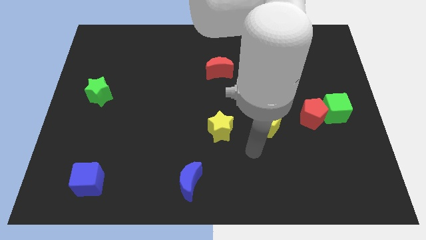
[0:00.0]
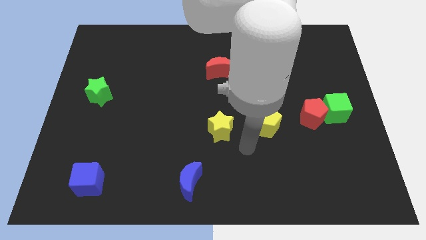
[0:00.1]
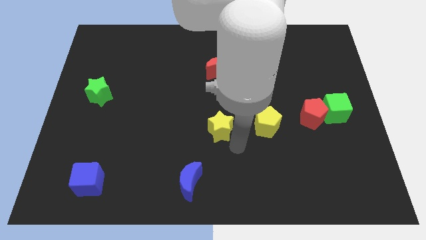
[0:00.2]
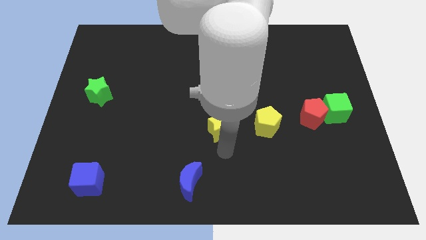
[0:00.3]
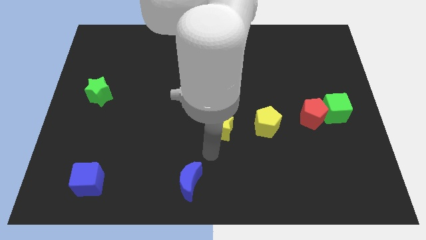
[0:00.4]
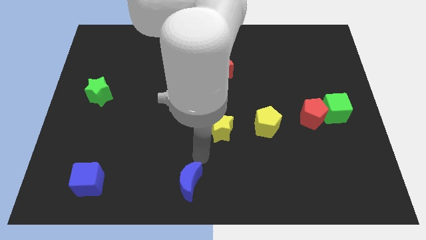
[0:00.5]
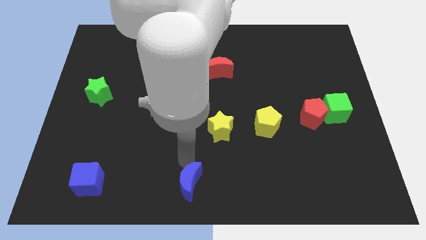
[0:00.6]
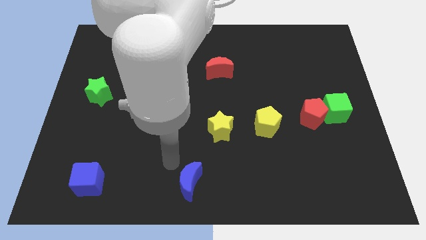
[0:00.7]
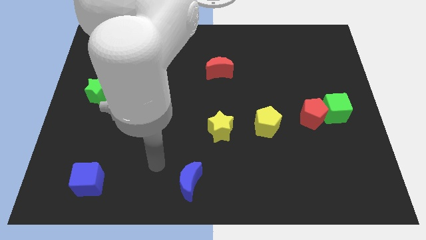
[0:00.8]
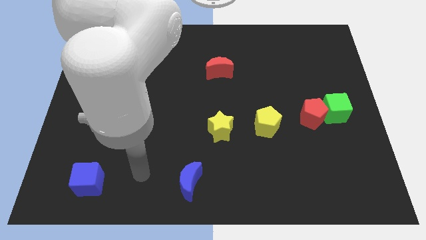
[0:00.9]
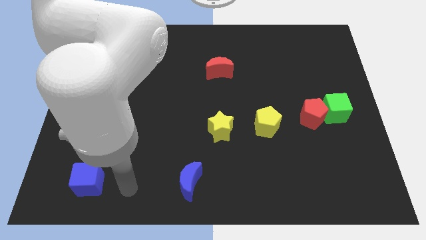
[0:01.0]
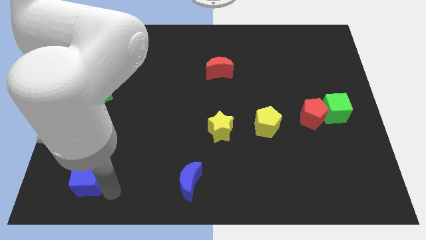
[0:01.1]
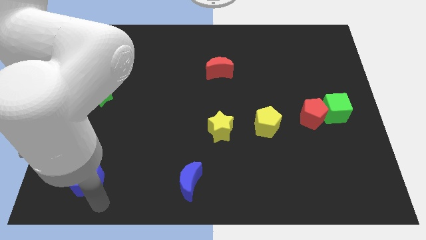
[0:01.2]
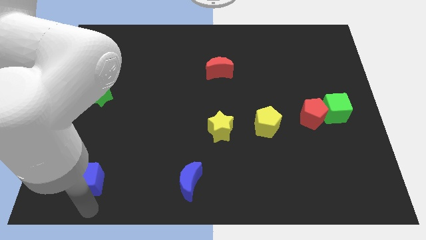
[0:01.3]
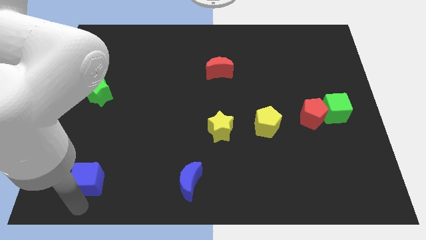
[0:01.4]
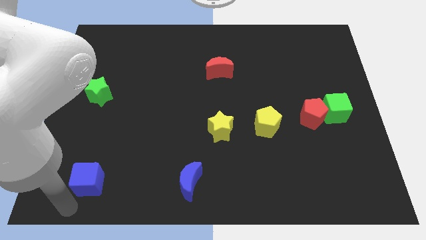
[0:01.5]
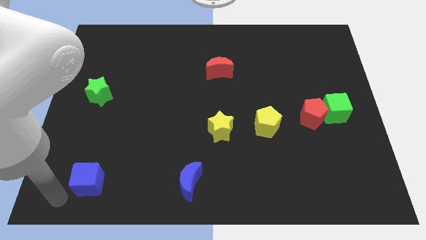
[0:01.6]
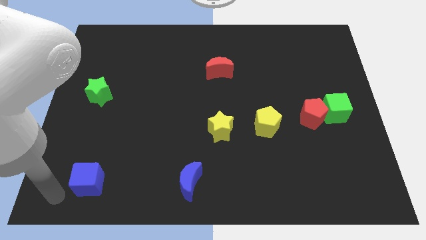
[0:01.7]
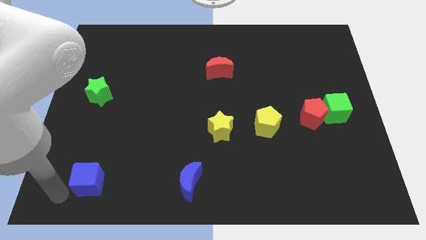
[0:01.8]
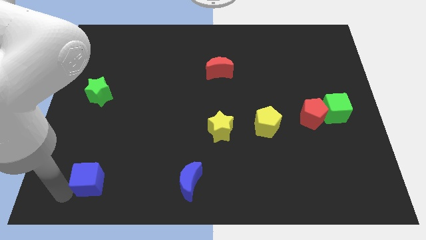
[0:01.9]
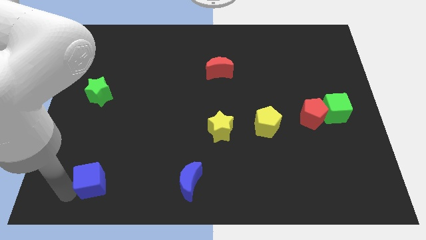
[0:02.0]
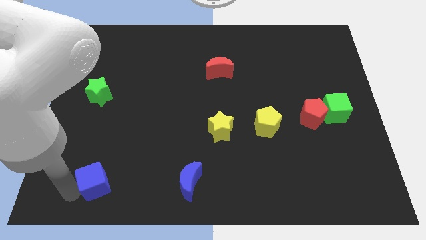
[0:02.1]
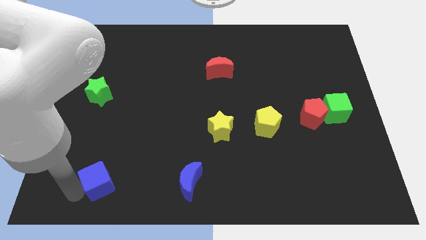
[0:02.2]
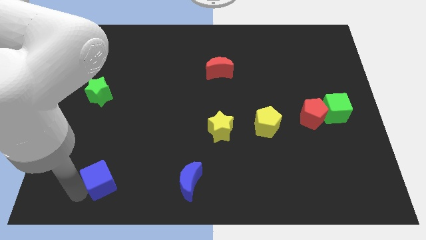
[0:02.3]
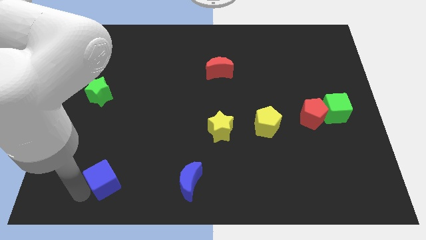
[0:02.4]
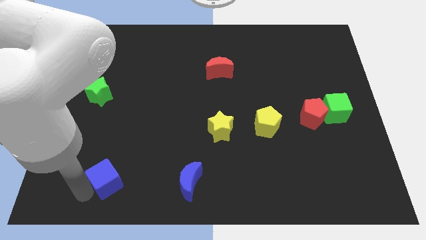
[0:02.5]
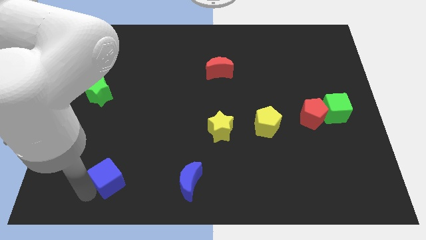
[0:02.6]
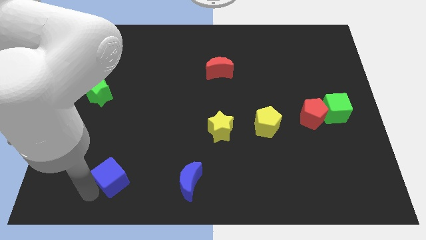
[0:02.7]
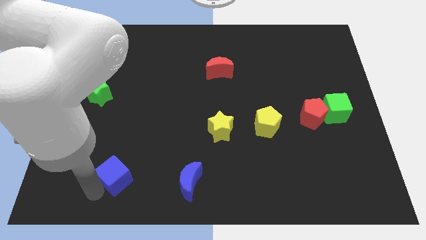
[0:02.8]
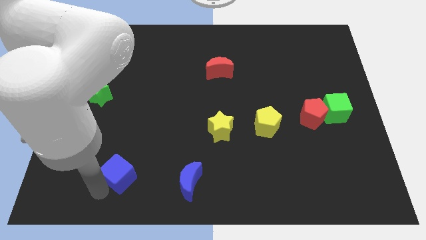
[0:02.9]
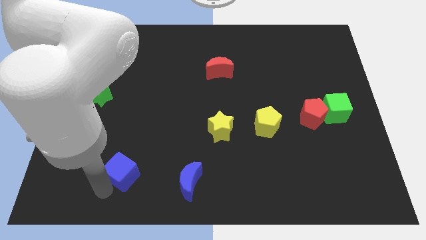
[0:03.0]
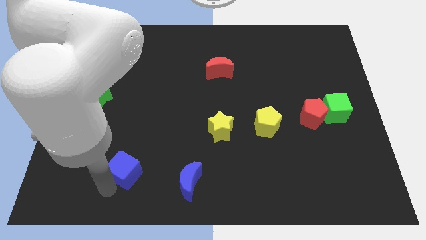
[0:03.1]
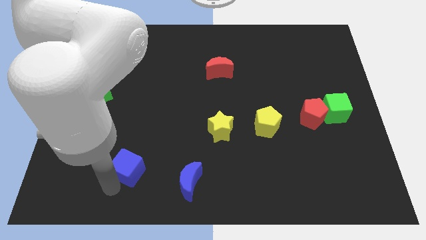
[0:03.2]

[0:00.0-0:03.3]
move the blue cube diagonally up and to the right a little bit

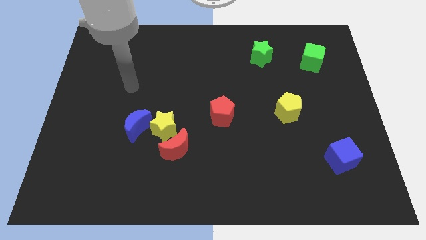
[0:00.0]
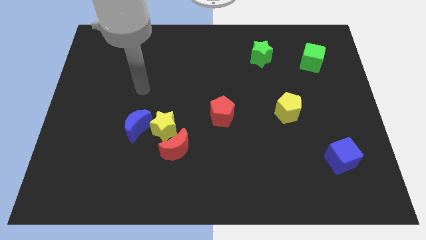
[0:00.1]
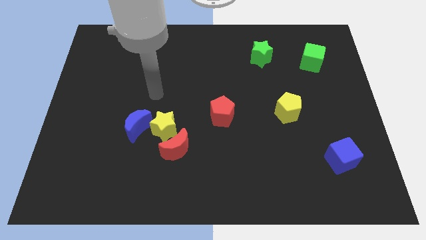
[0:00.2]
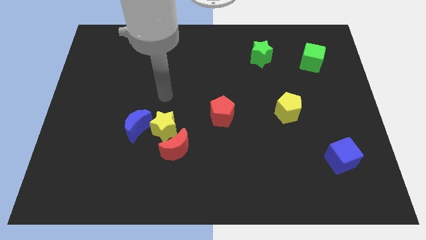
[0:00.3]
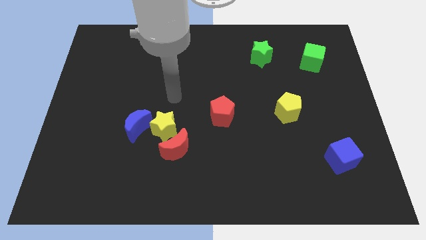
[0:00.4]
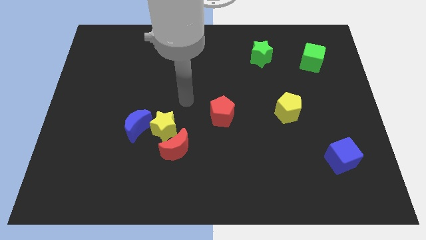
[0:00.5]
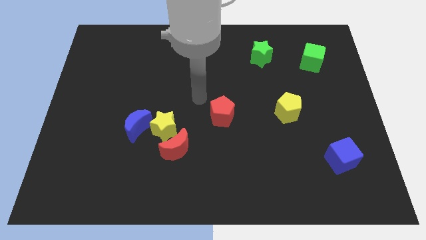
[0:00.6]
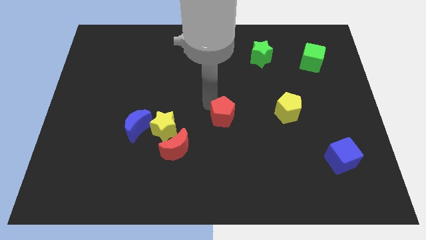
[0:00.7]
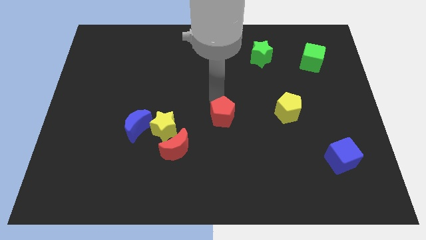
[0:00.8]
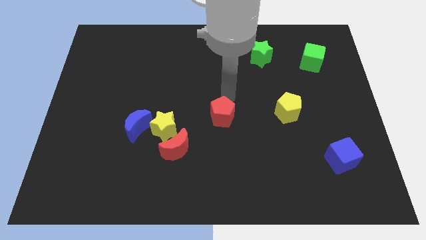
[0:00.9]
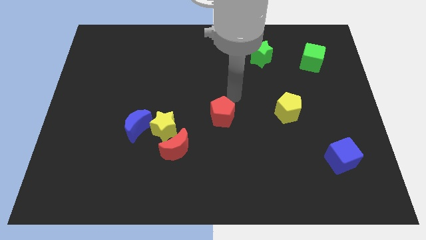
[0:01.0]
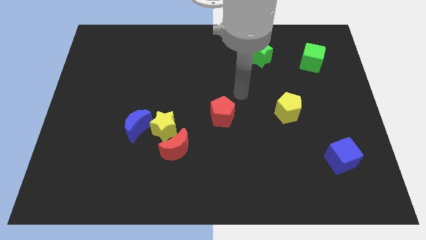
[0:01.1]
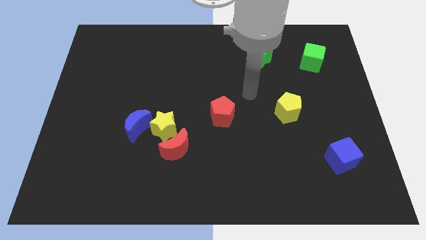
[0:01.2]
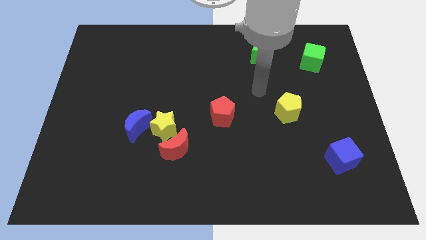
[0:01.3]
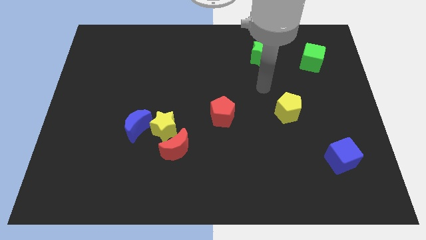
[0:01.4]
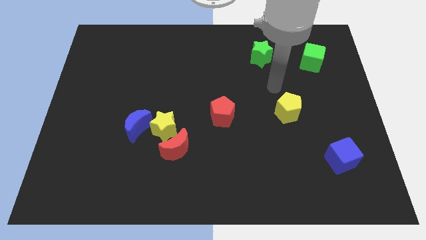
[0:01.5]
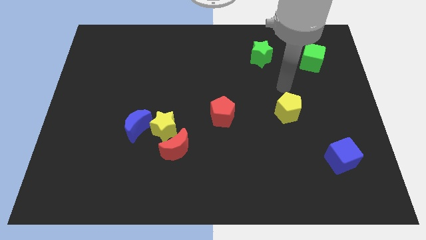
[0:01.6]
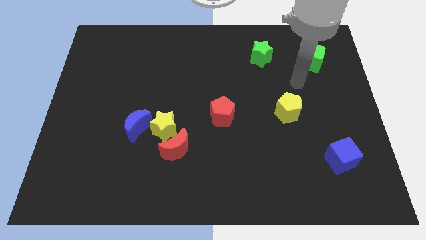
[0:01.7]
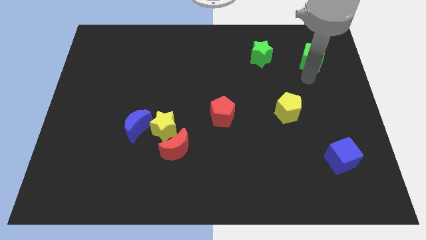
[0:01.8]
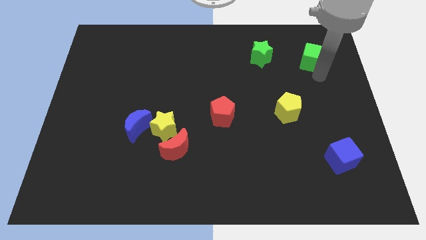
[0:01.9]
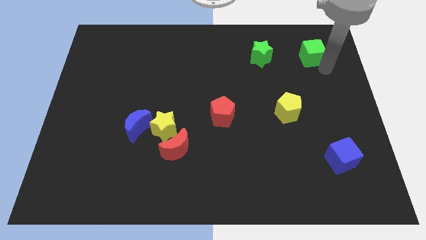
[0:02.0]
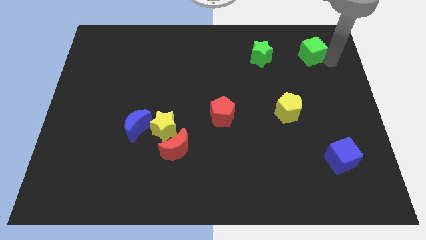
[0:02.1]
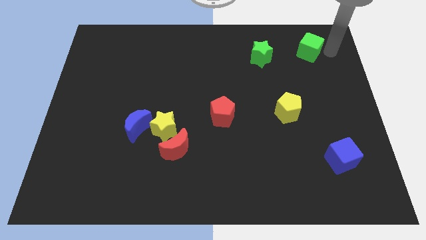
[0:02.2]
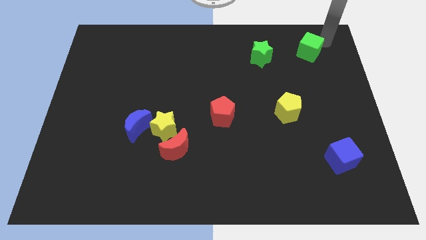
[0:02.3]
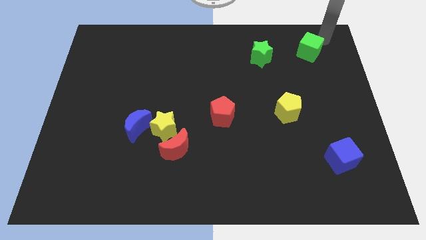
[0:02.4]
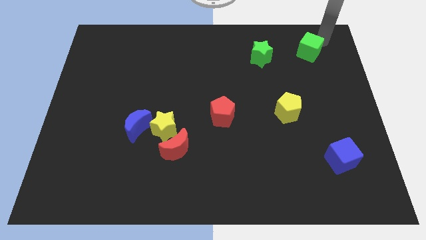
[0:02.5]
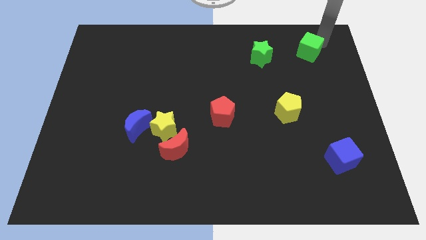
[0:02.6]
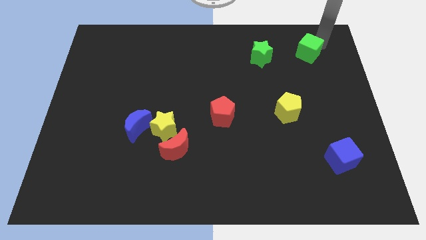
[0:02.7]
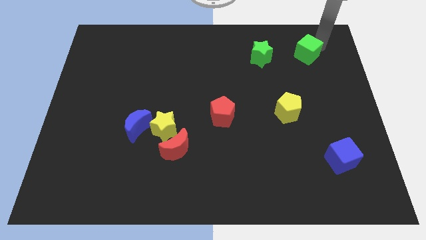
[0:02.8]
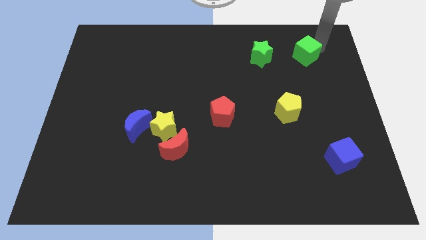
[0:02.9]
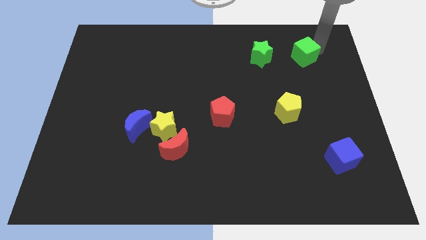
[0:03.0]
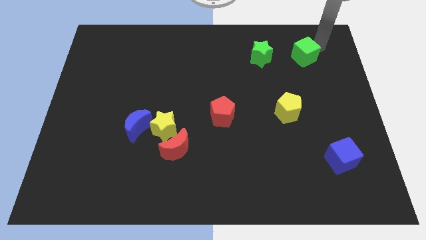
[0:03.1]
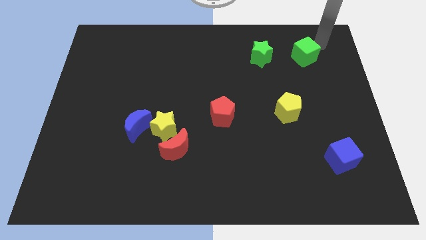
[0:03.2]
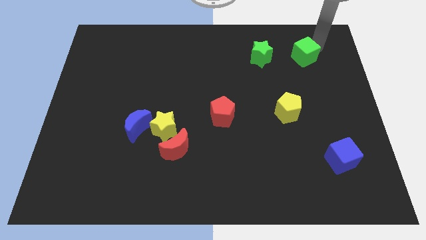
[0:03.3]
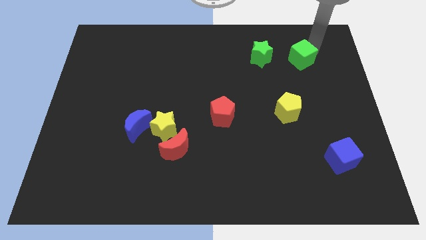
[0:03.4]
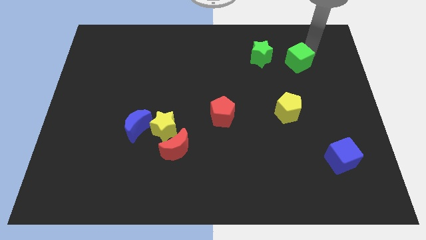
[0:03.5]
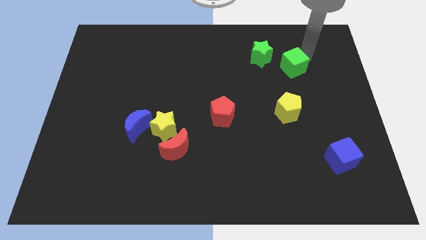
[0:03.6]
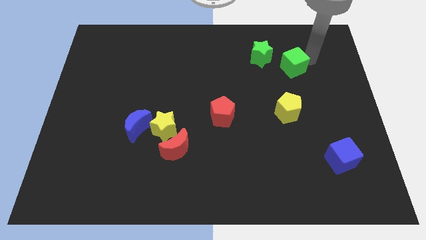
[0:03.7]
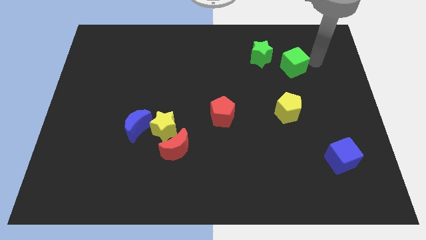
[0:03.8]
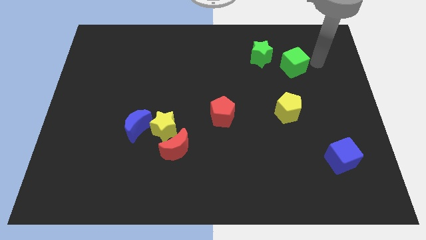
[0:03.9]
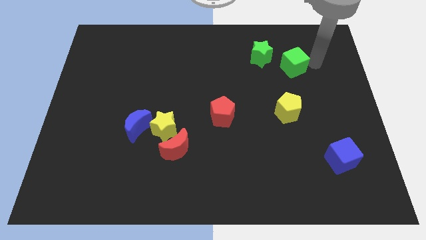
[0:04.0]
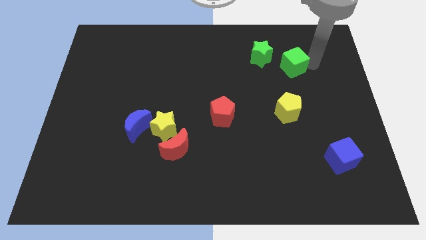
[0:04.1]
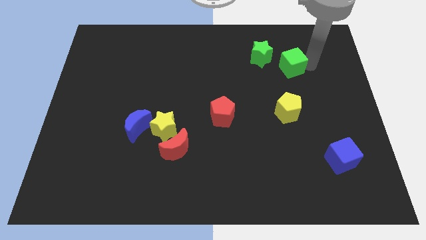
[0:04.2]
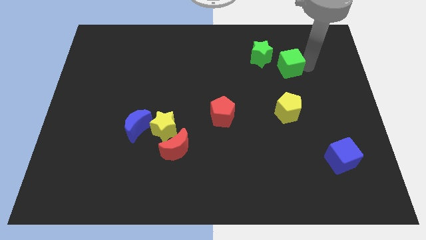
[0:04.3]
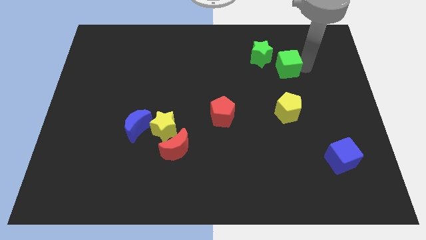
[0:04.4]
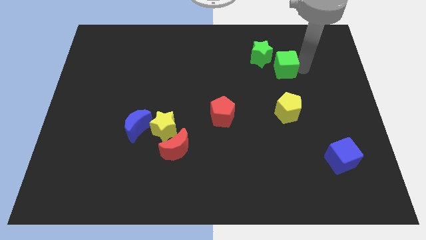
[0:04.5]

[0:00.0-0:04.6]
slightly slide the green cube left

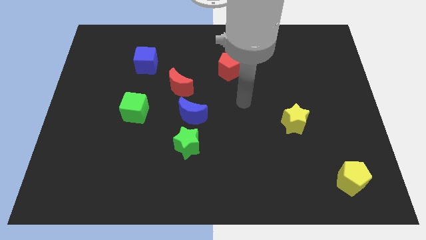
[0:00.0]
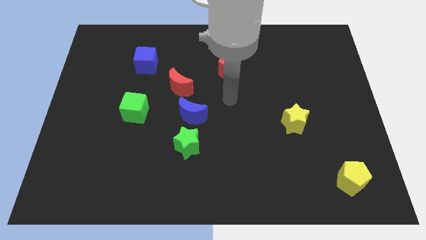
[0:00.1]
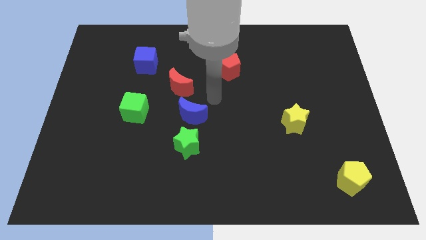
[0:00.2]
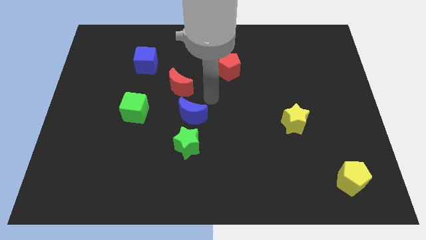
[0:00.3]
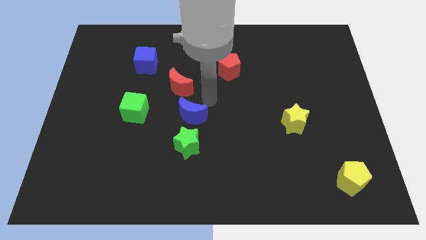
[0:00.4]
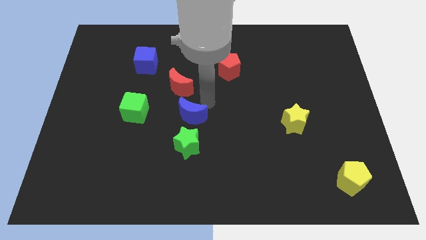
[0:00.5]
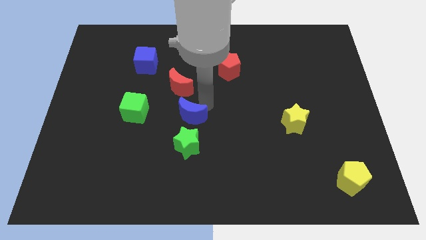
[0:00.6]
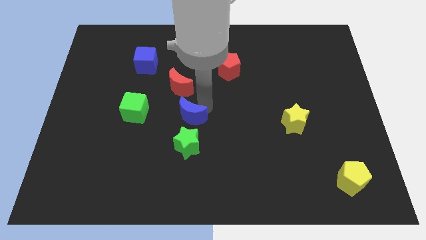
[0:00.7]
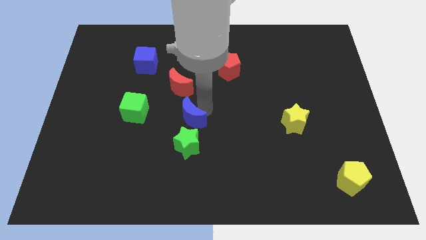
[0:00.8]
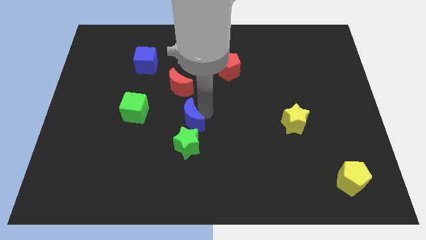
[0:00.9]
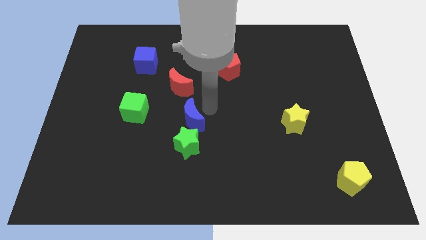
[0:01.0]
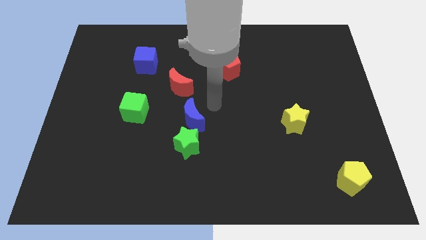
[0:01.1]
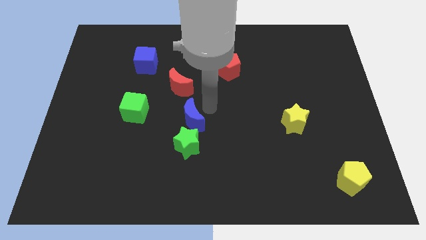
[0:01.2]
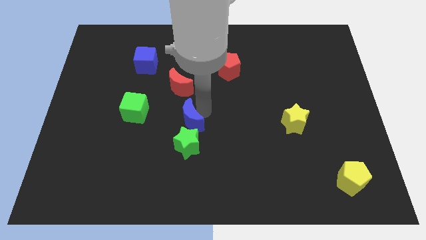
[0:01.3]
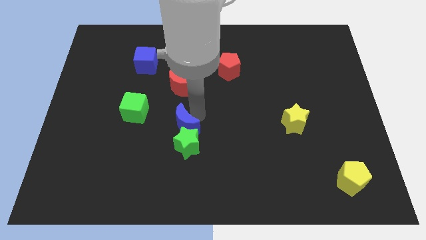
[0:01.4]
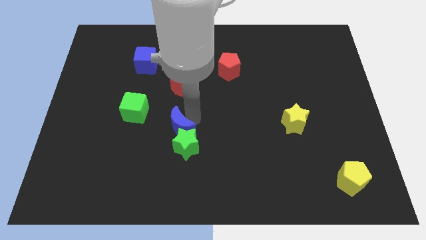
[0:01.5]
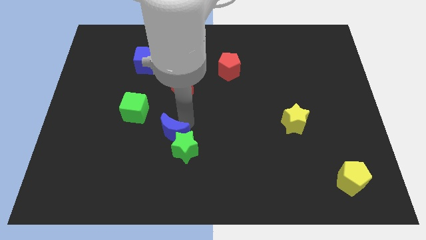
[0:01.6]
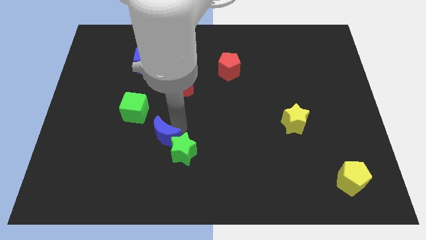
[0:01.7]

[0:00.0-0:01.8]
push the blue moon a bit downwards and then to the left
